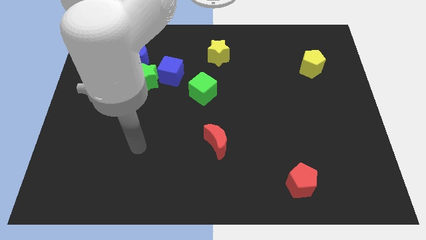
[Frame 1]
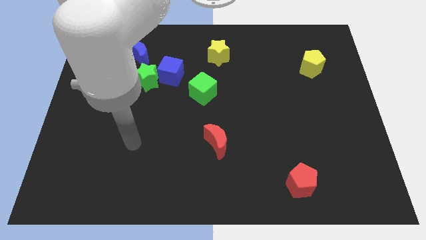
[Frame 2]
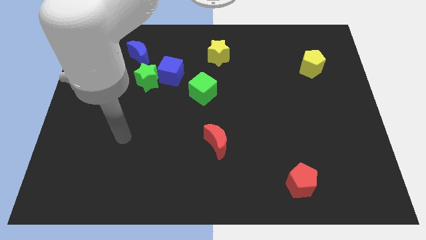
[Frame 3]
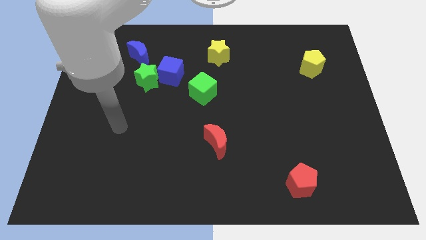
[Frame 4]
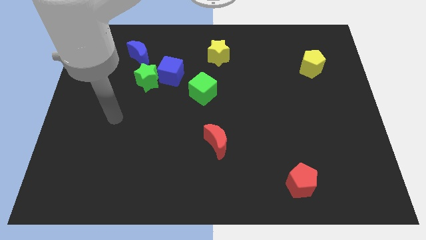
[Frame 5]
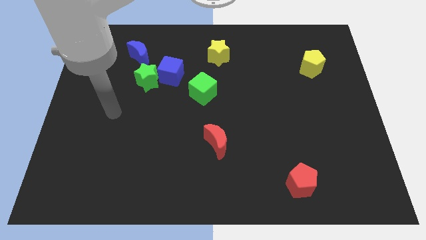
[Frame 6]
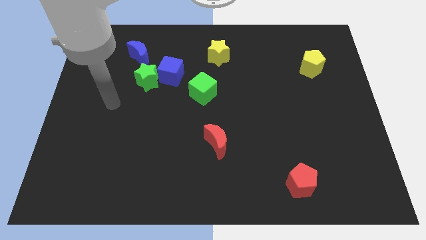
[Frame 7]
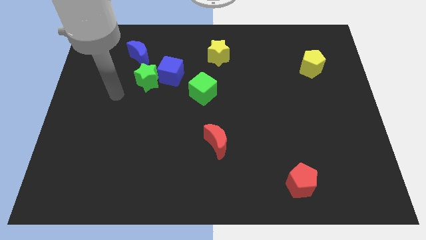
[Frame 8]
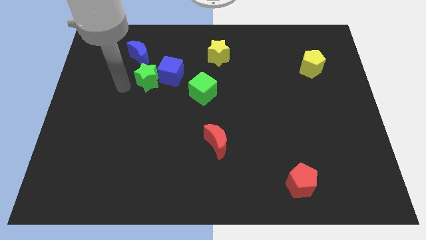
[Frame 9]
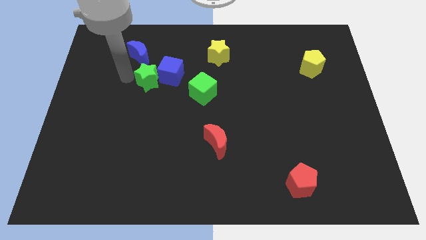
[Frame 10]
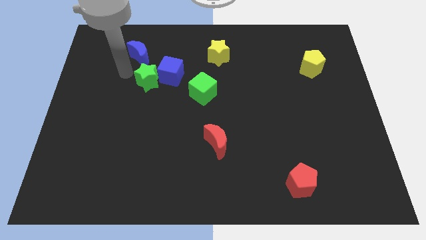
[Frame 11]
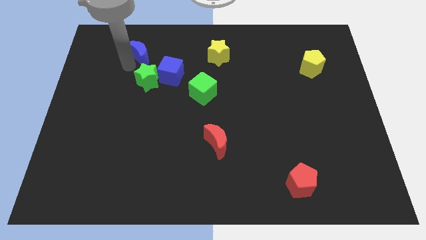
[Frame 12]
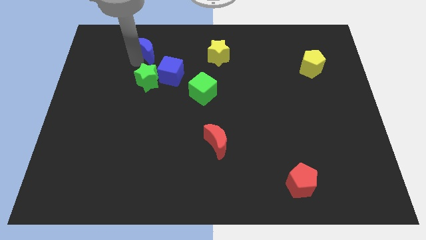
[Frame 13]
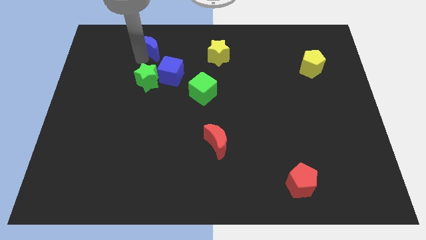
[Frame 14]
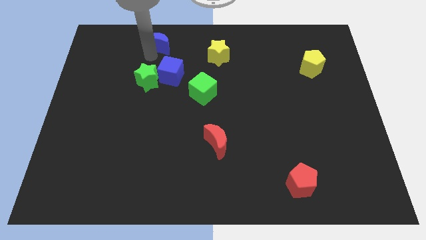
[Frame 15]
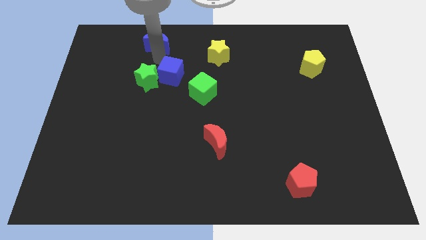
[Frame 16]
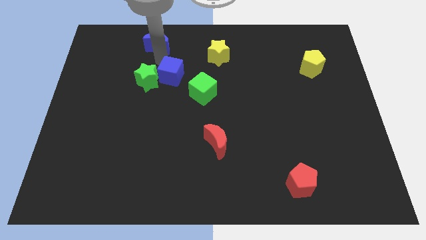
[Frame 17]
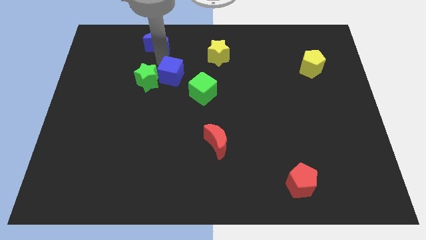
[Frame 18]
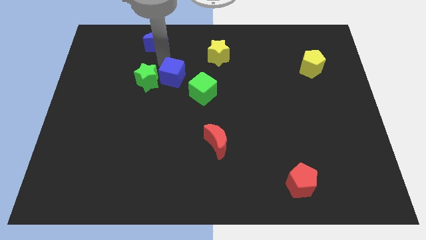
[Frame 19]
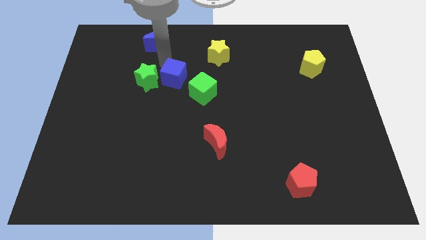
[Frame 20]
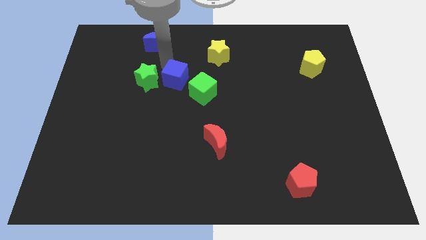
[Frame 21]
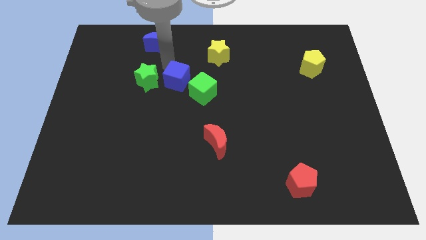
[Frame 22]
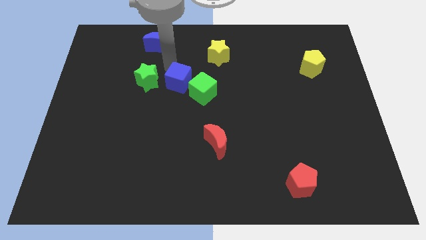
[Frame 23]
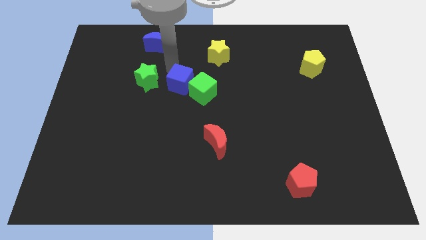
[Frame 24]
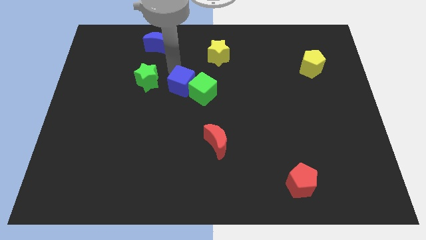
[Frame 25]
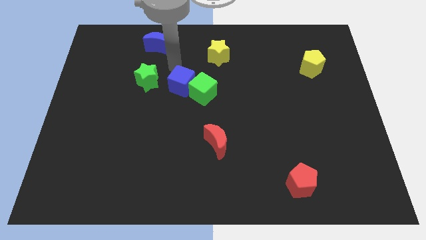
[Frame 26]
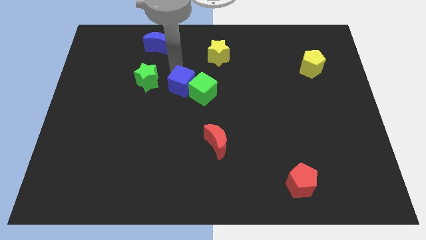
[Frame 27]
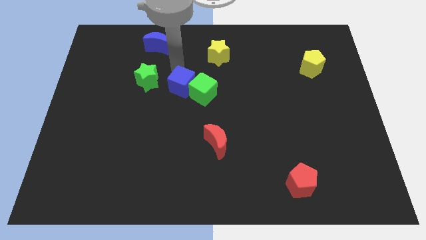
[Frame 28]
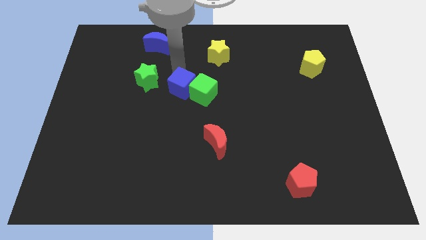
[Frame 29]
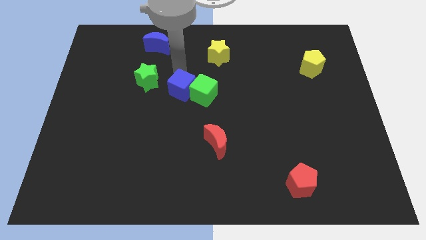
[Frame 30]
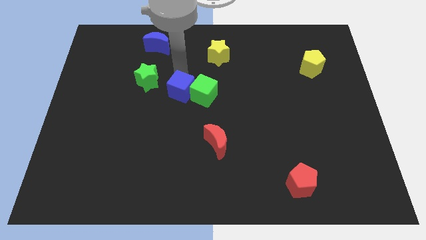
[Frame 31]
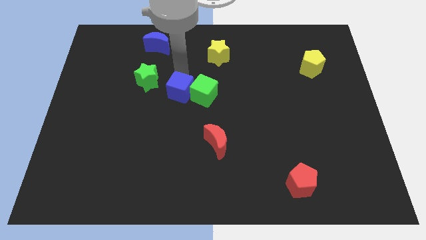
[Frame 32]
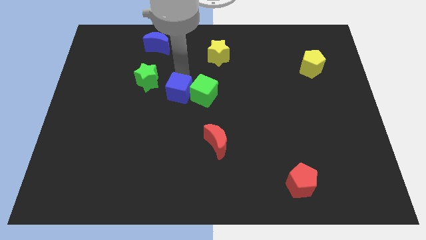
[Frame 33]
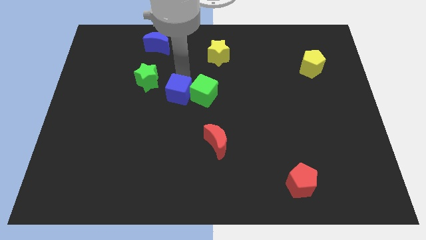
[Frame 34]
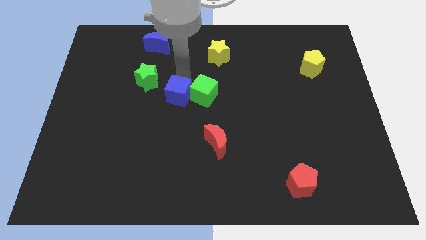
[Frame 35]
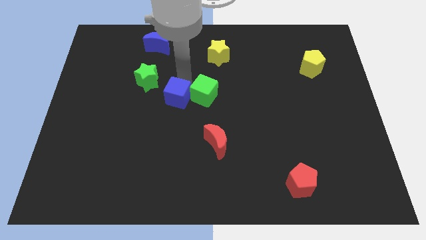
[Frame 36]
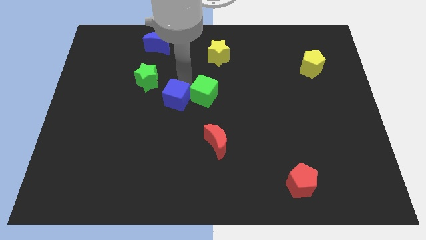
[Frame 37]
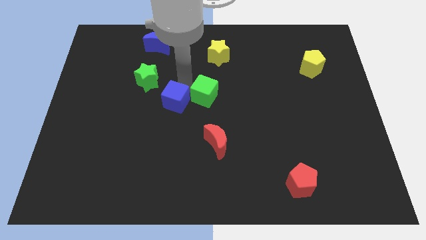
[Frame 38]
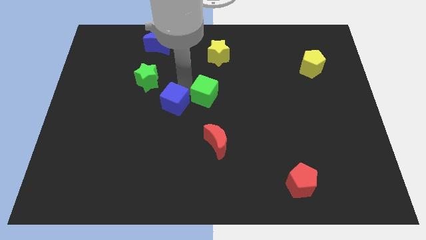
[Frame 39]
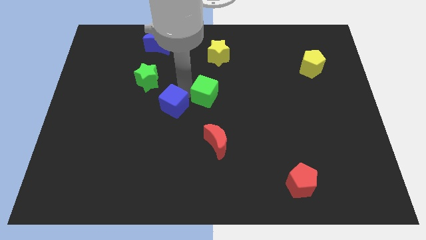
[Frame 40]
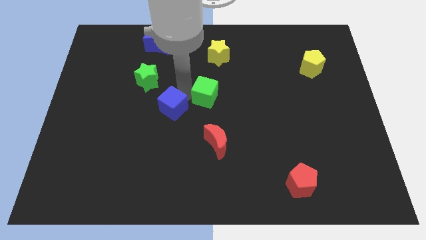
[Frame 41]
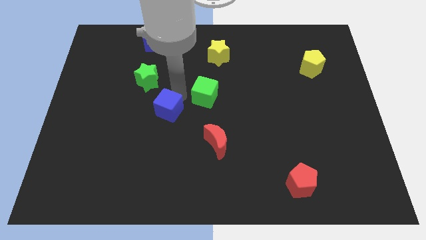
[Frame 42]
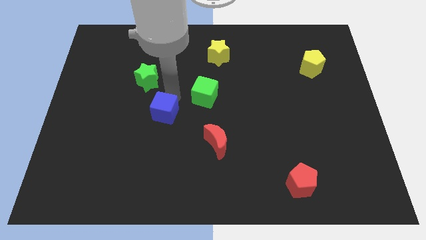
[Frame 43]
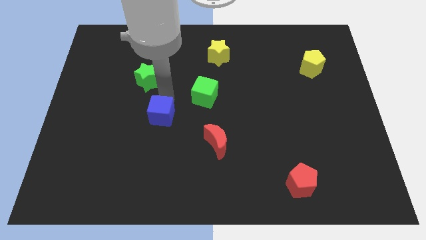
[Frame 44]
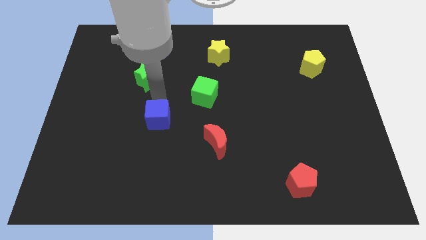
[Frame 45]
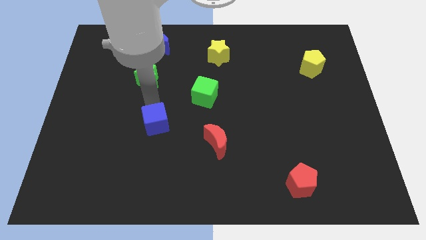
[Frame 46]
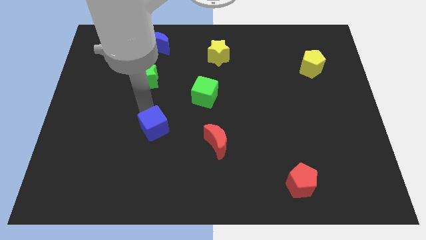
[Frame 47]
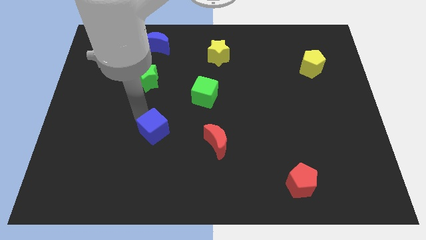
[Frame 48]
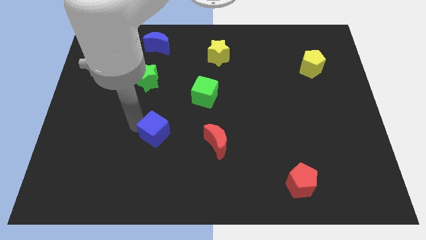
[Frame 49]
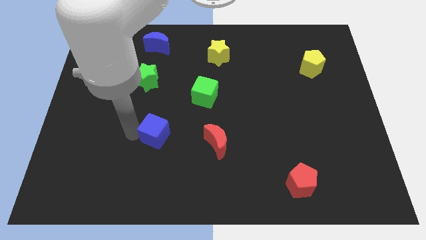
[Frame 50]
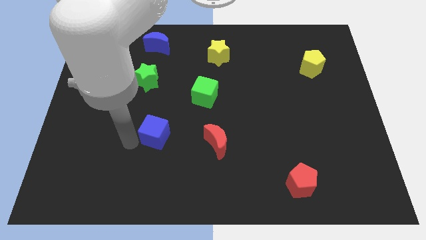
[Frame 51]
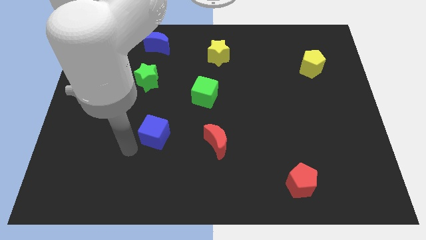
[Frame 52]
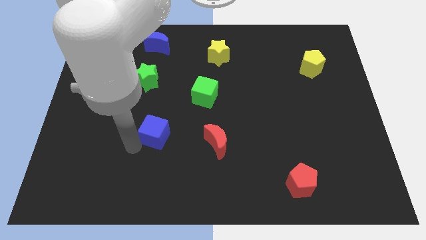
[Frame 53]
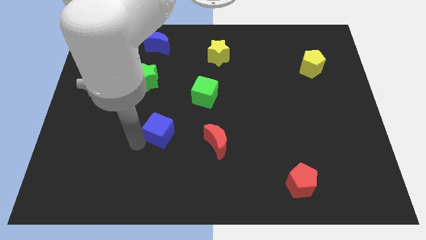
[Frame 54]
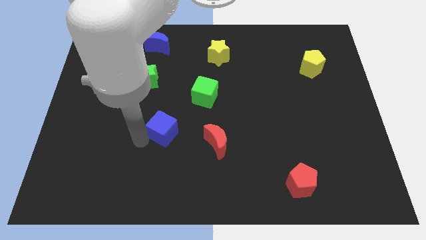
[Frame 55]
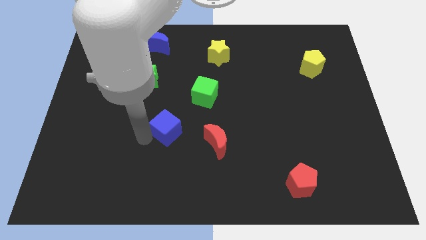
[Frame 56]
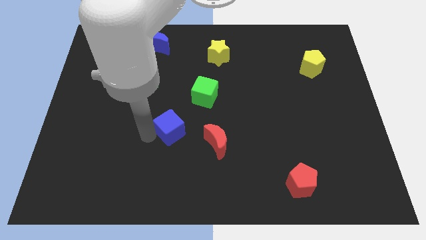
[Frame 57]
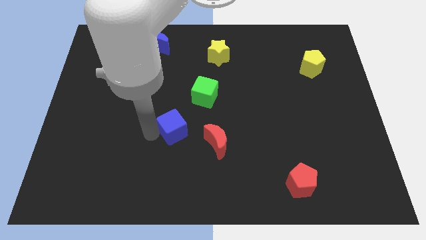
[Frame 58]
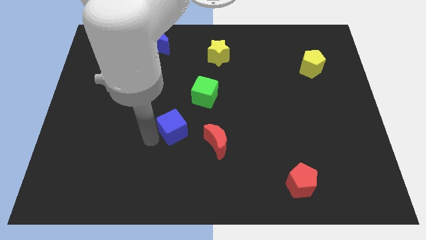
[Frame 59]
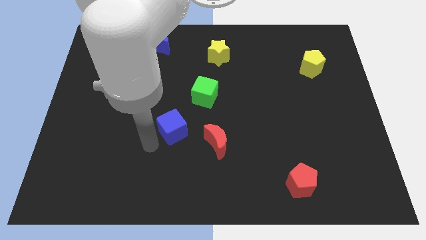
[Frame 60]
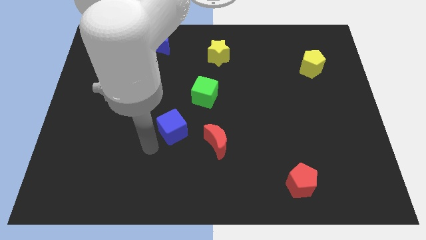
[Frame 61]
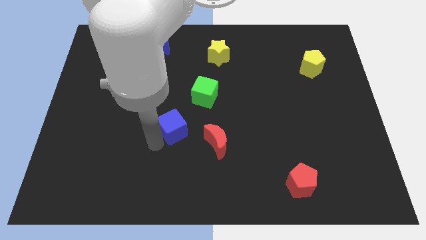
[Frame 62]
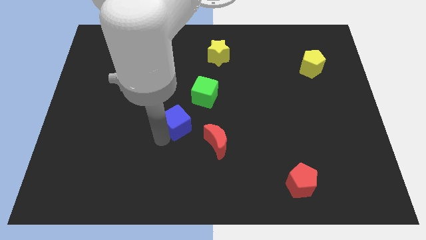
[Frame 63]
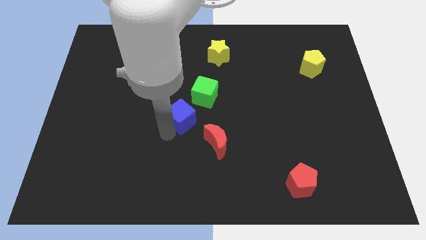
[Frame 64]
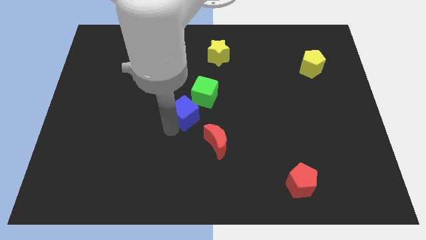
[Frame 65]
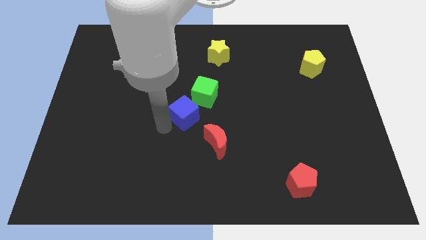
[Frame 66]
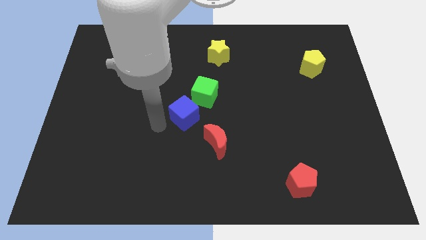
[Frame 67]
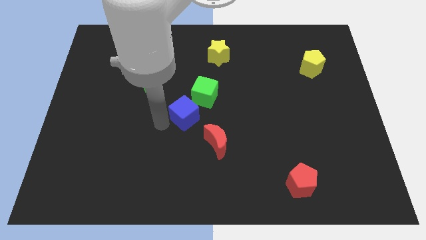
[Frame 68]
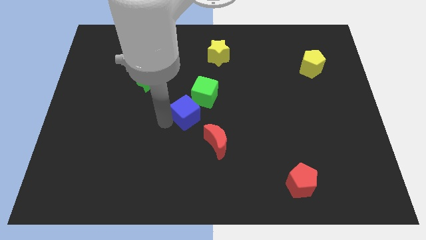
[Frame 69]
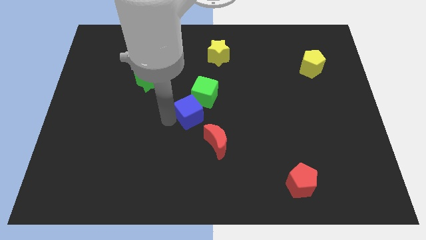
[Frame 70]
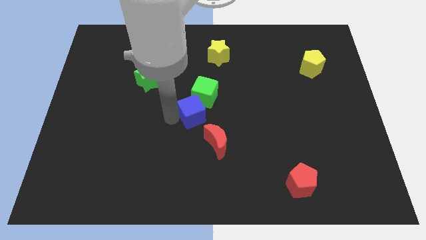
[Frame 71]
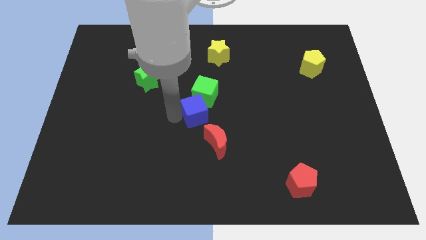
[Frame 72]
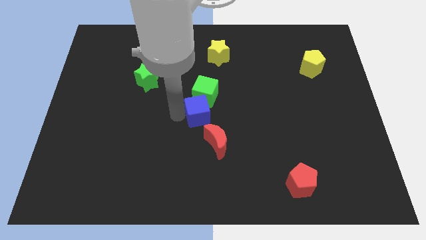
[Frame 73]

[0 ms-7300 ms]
move the blue cube to the top side of the red moon
